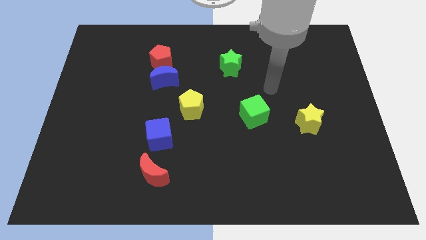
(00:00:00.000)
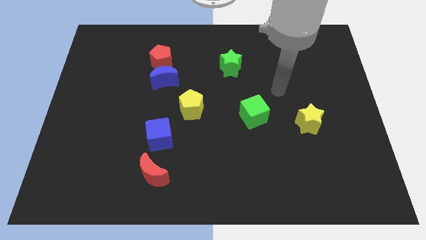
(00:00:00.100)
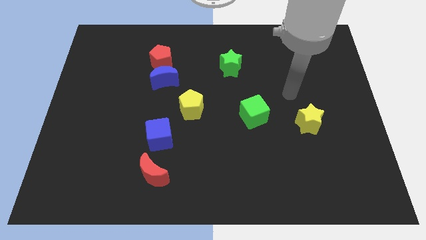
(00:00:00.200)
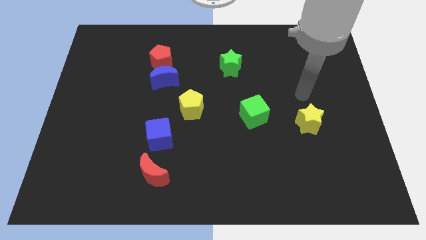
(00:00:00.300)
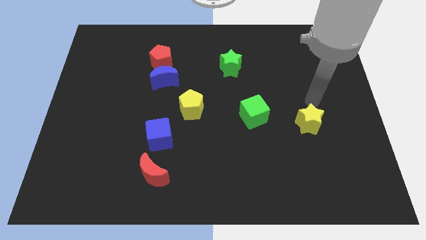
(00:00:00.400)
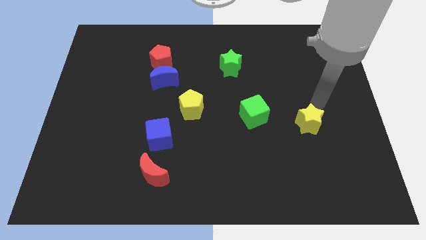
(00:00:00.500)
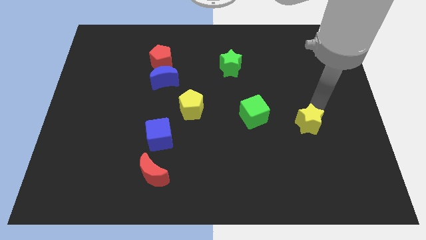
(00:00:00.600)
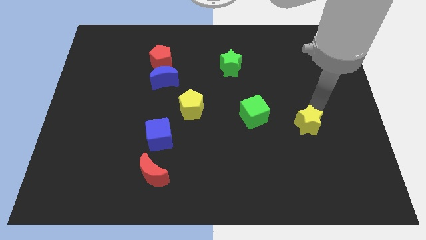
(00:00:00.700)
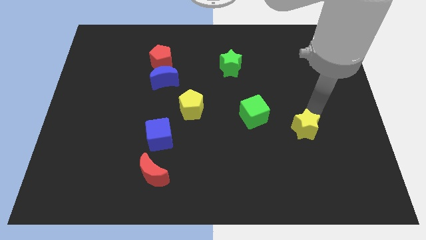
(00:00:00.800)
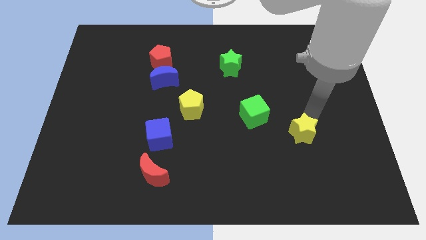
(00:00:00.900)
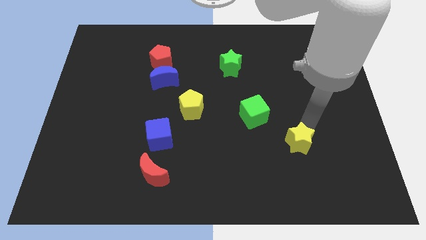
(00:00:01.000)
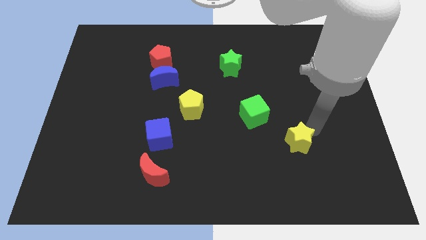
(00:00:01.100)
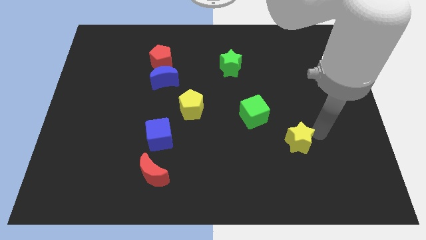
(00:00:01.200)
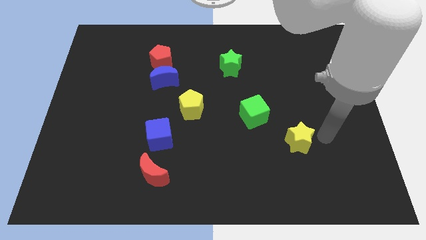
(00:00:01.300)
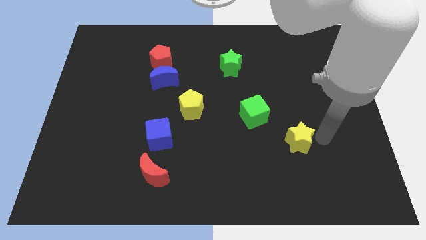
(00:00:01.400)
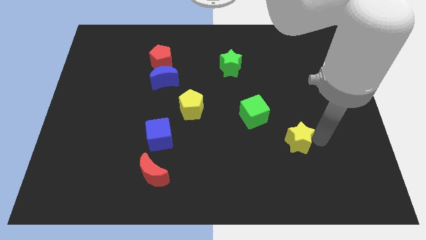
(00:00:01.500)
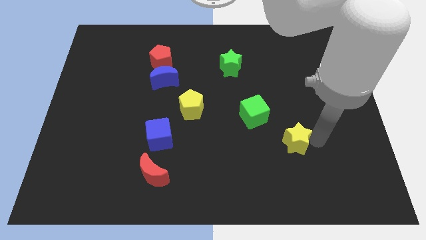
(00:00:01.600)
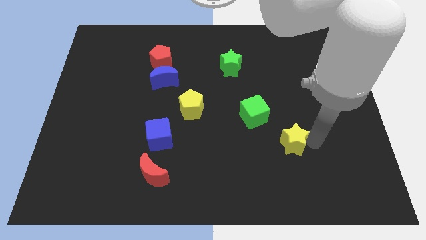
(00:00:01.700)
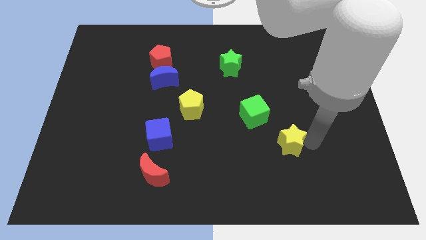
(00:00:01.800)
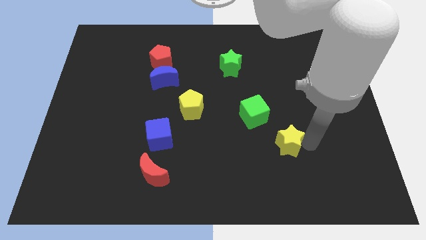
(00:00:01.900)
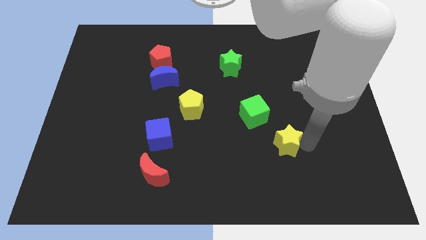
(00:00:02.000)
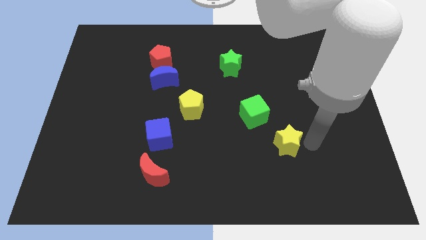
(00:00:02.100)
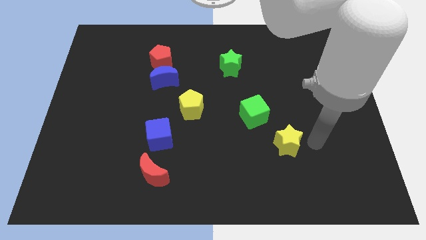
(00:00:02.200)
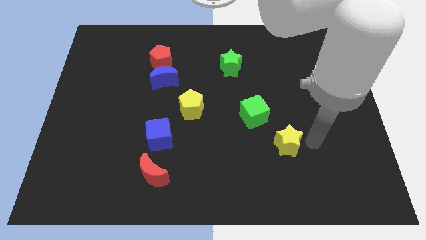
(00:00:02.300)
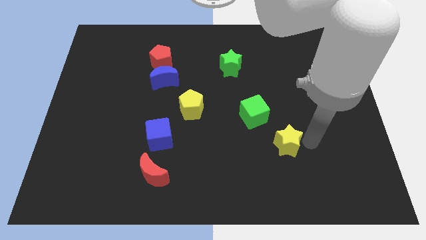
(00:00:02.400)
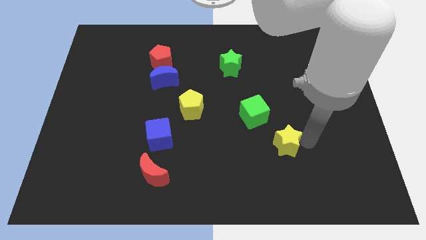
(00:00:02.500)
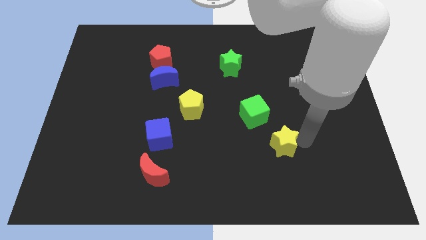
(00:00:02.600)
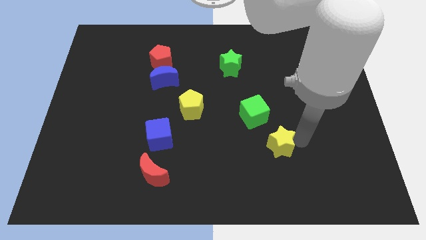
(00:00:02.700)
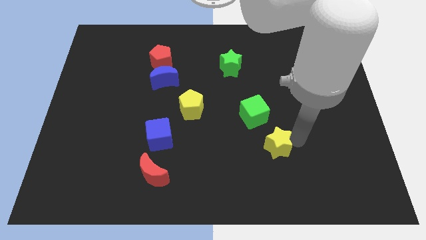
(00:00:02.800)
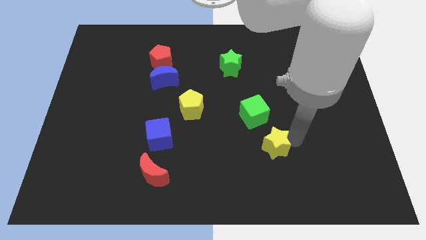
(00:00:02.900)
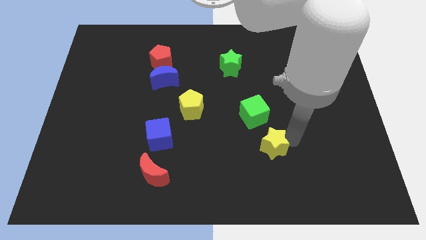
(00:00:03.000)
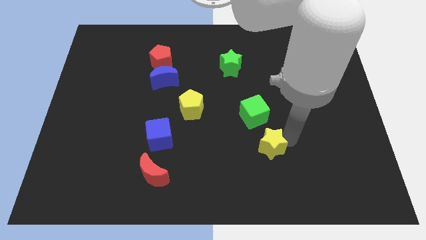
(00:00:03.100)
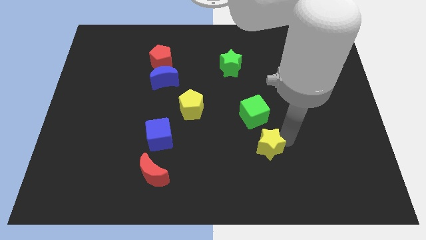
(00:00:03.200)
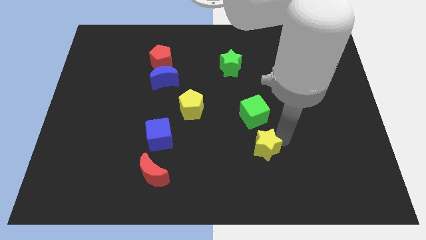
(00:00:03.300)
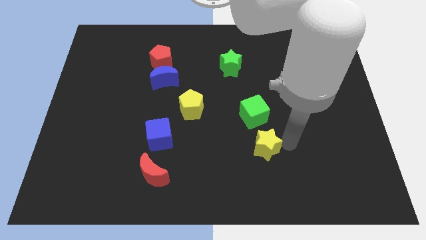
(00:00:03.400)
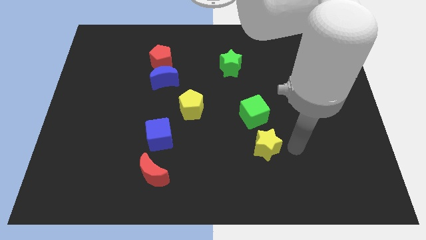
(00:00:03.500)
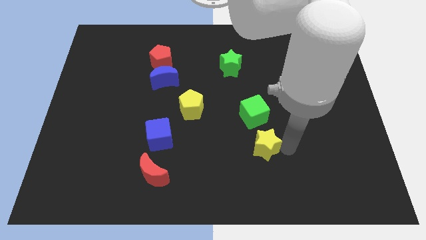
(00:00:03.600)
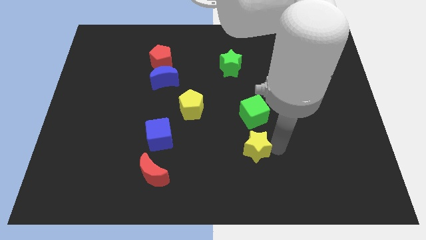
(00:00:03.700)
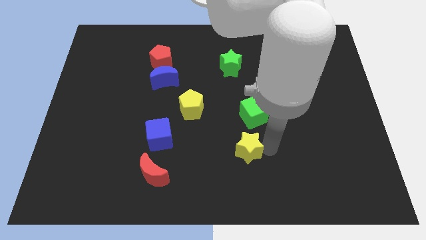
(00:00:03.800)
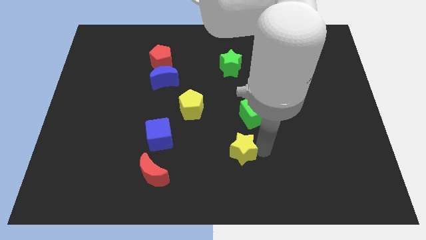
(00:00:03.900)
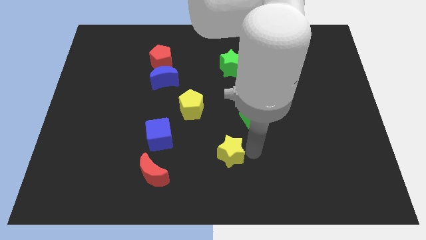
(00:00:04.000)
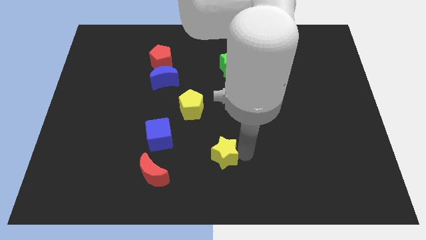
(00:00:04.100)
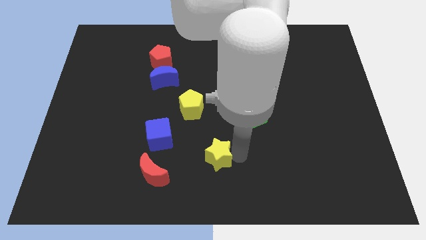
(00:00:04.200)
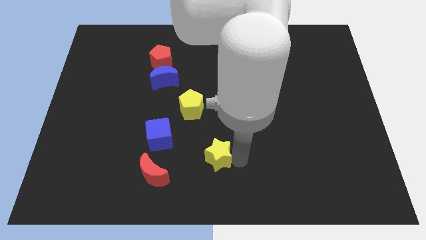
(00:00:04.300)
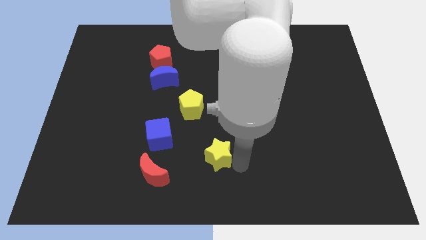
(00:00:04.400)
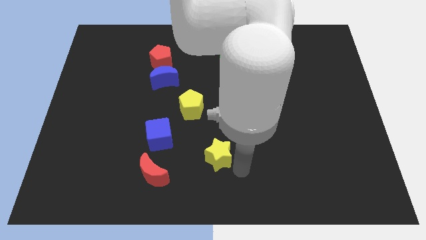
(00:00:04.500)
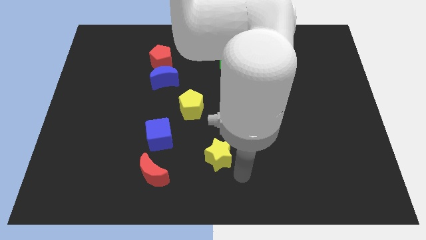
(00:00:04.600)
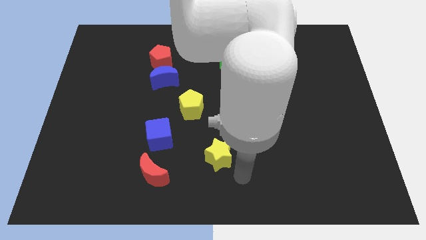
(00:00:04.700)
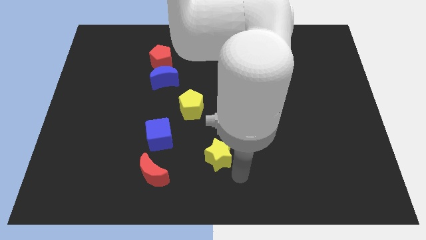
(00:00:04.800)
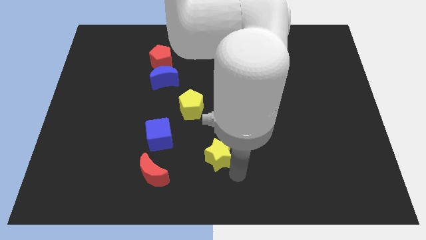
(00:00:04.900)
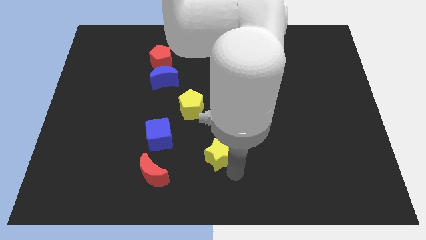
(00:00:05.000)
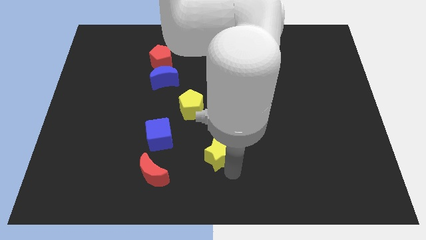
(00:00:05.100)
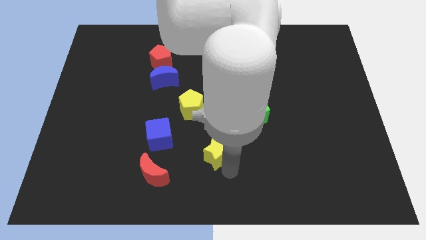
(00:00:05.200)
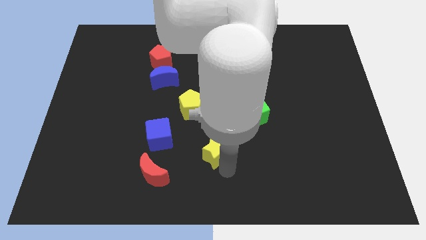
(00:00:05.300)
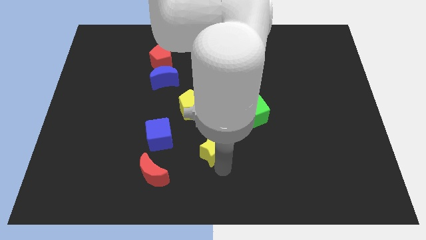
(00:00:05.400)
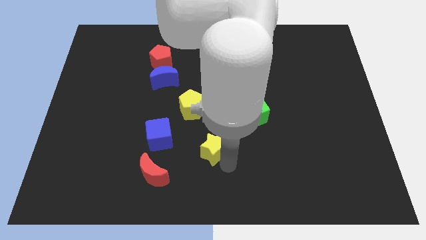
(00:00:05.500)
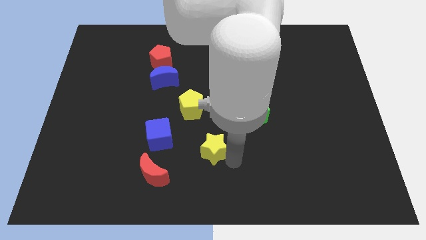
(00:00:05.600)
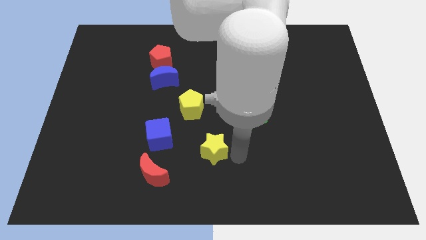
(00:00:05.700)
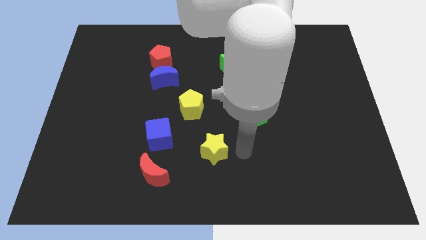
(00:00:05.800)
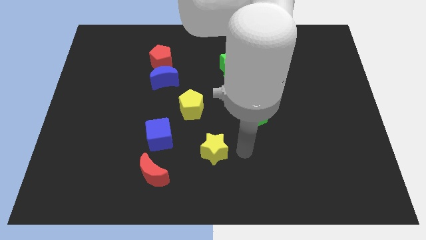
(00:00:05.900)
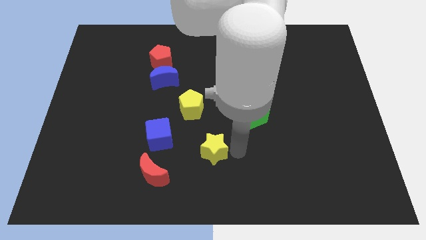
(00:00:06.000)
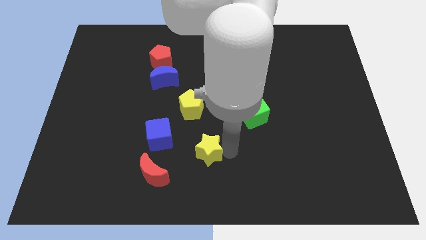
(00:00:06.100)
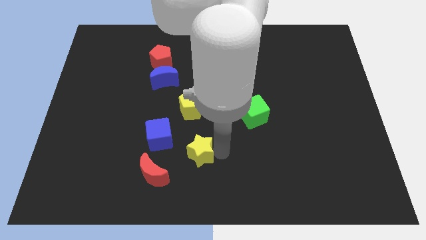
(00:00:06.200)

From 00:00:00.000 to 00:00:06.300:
push the yellow star to the top right of the red moon

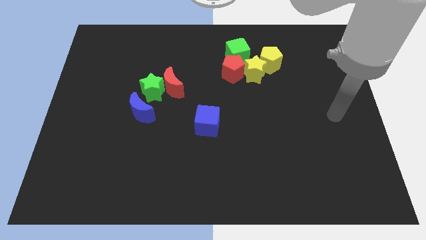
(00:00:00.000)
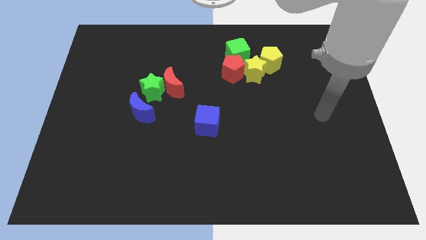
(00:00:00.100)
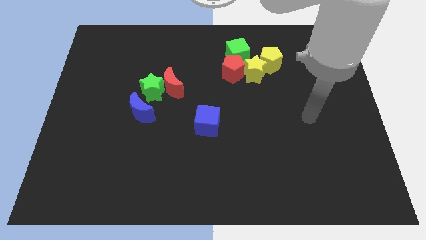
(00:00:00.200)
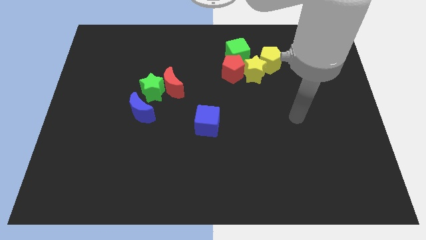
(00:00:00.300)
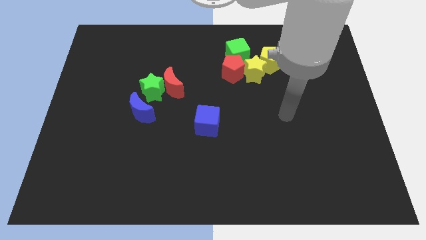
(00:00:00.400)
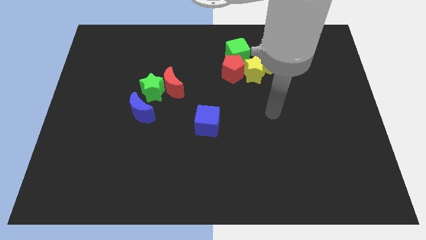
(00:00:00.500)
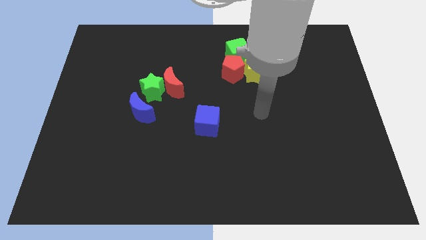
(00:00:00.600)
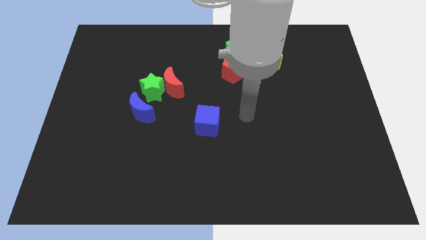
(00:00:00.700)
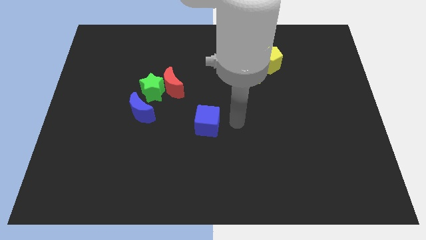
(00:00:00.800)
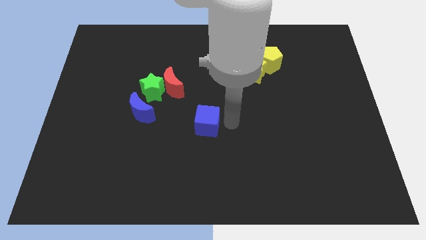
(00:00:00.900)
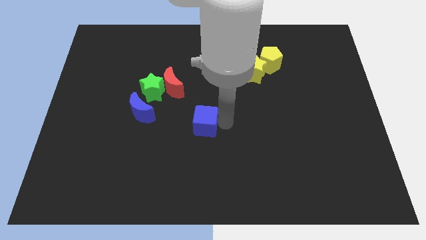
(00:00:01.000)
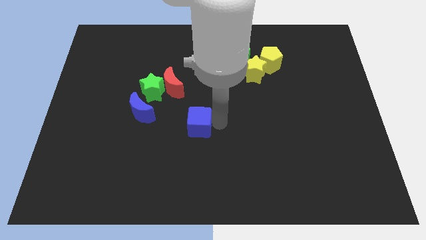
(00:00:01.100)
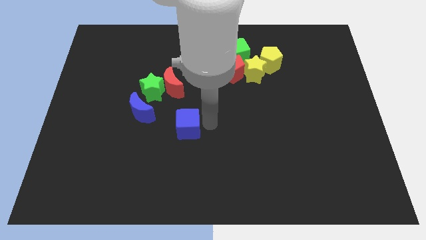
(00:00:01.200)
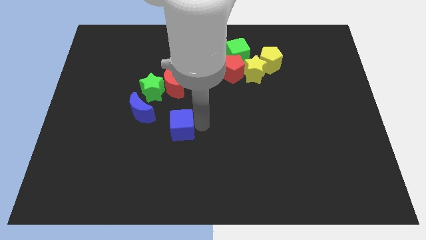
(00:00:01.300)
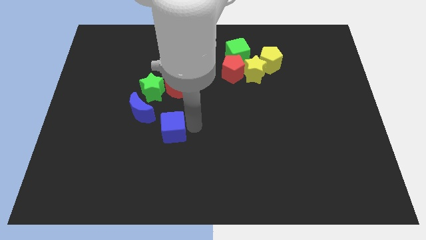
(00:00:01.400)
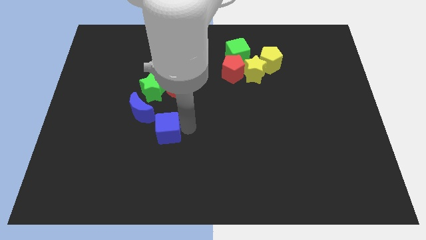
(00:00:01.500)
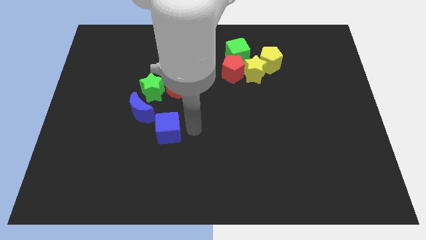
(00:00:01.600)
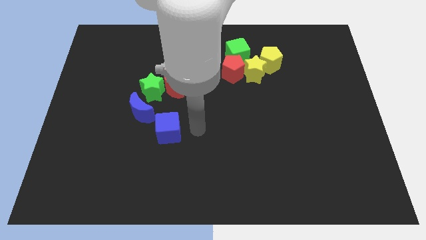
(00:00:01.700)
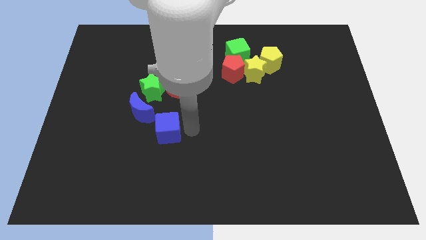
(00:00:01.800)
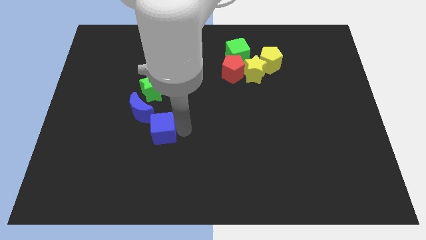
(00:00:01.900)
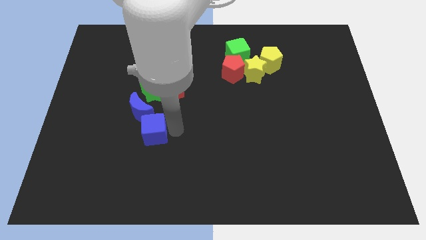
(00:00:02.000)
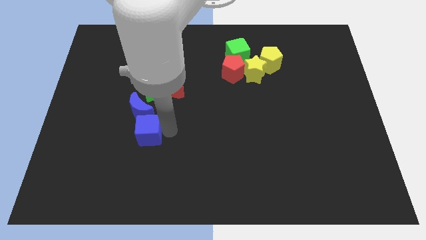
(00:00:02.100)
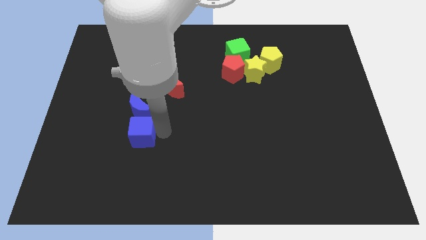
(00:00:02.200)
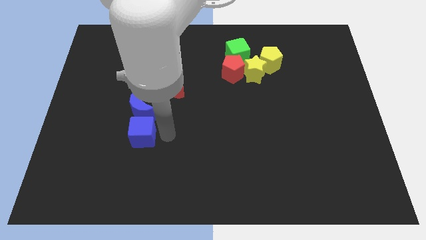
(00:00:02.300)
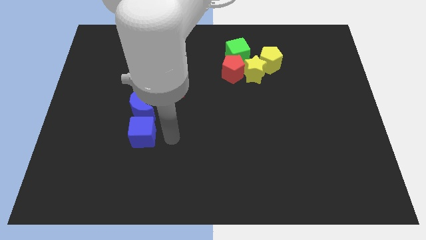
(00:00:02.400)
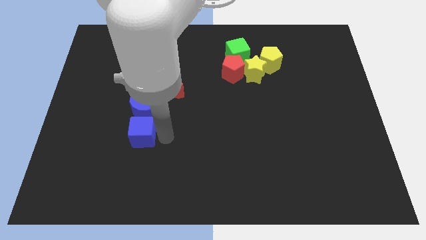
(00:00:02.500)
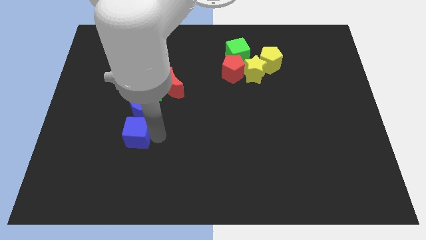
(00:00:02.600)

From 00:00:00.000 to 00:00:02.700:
move the blue cube to the bottom left side of the blue moon
